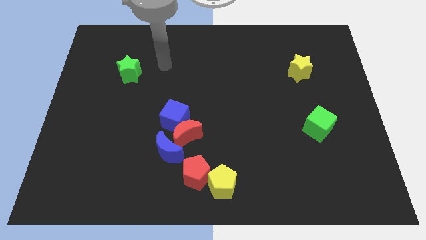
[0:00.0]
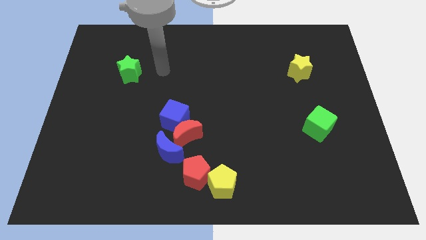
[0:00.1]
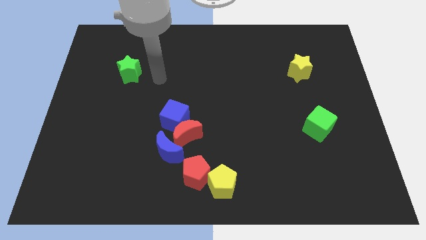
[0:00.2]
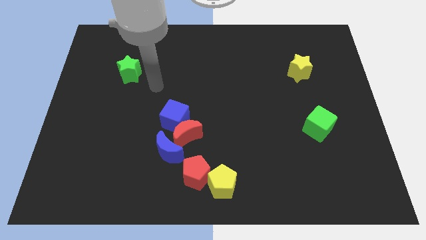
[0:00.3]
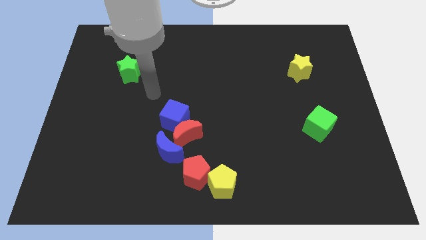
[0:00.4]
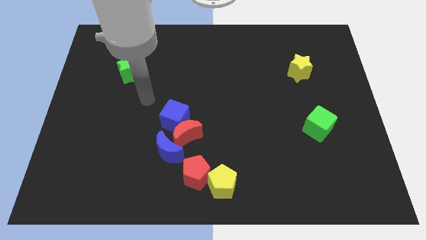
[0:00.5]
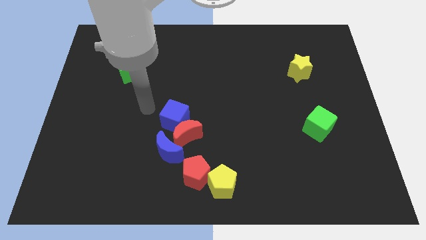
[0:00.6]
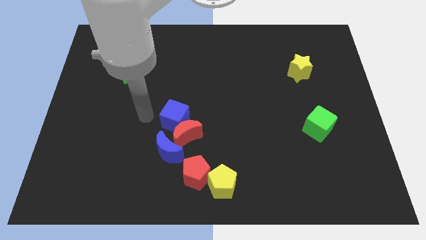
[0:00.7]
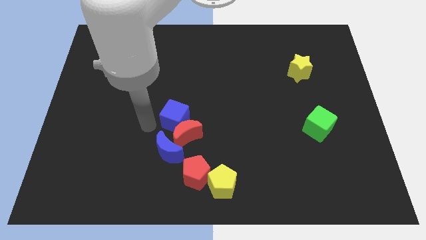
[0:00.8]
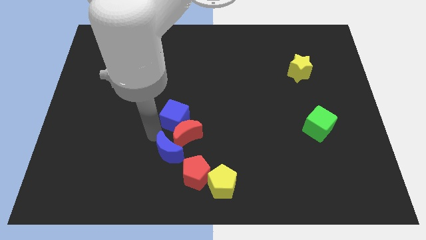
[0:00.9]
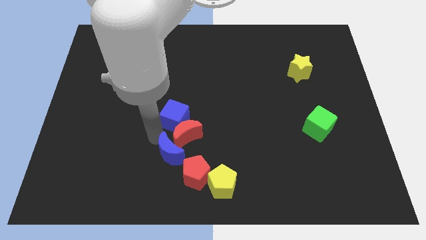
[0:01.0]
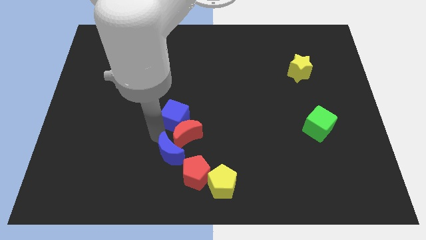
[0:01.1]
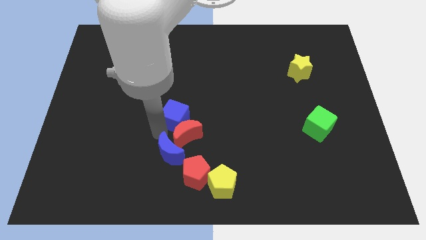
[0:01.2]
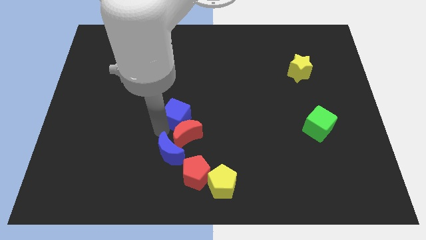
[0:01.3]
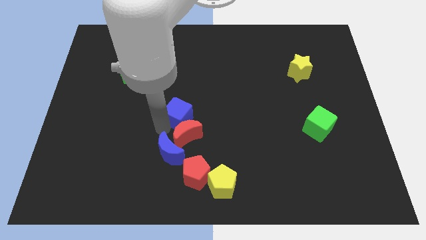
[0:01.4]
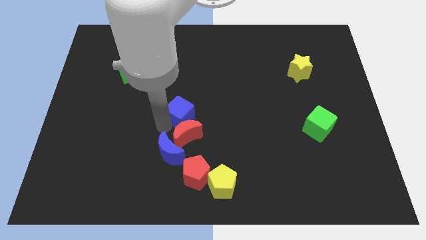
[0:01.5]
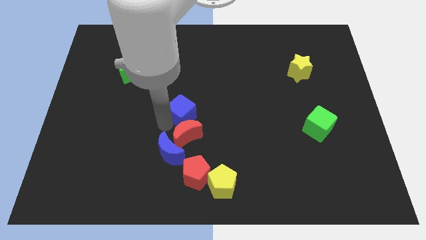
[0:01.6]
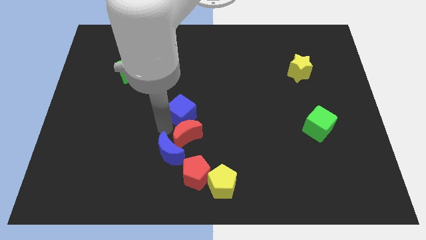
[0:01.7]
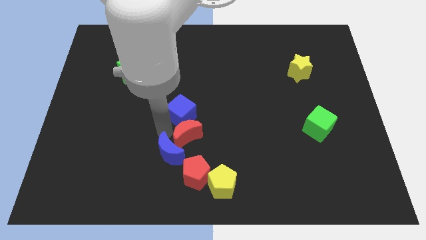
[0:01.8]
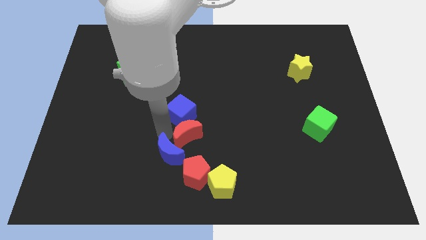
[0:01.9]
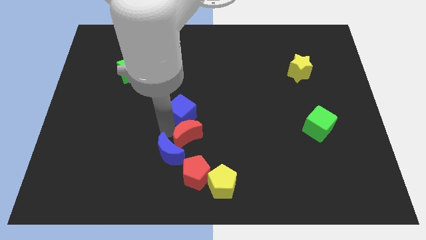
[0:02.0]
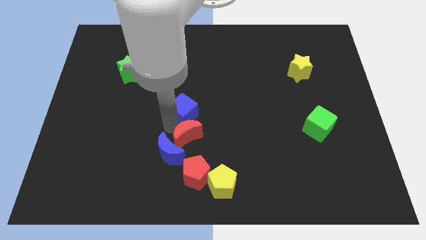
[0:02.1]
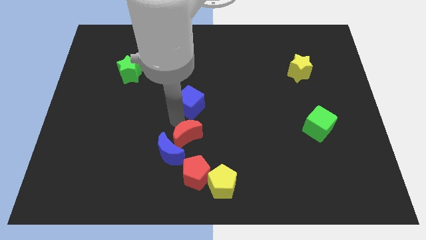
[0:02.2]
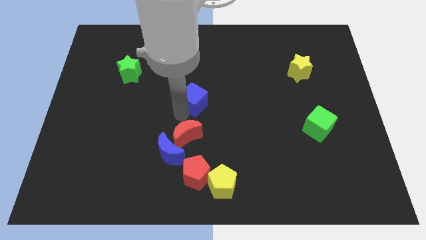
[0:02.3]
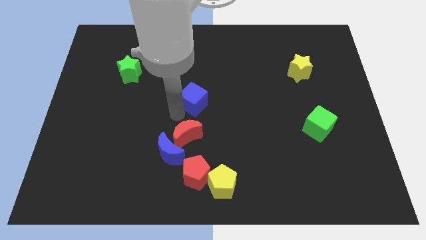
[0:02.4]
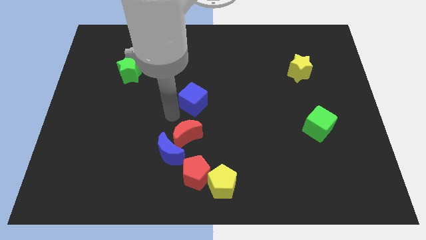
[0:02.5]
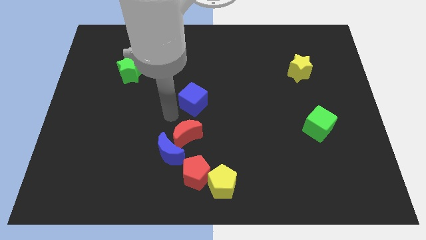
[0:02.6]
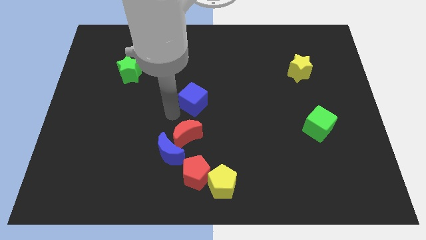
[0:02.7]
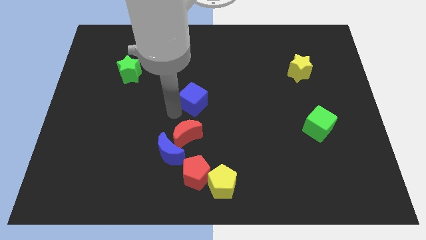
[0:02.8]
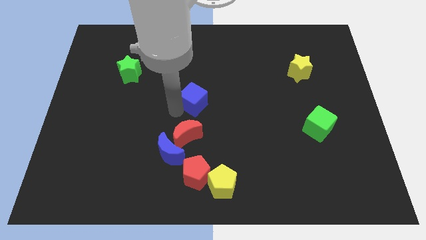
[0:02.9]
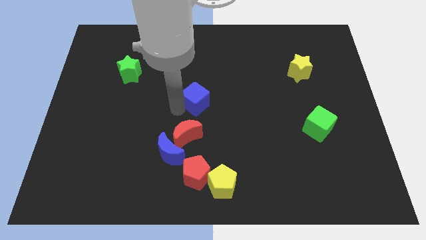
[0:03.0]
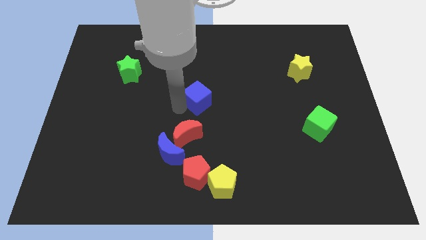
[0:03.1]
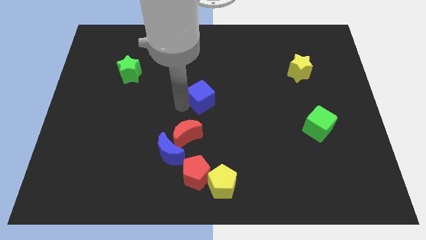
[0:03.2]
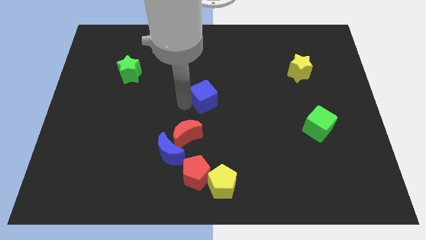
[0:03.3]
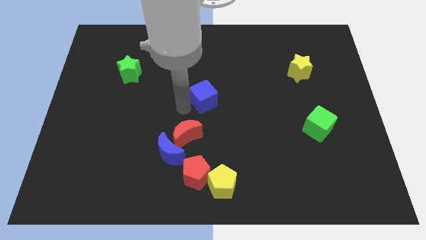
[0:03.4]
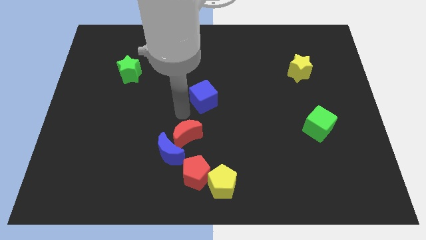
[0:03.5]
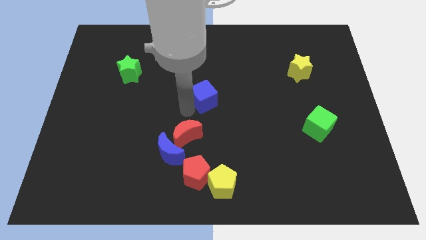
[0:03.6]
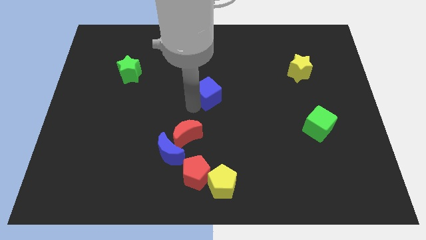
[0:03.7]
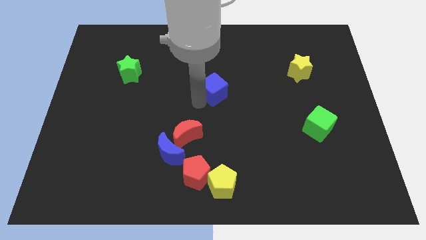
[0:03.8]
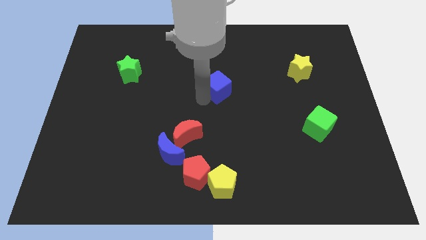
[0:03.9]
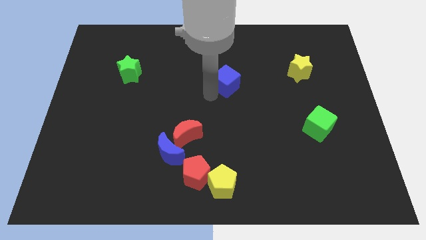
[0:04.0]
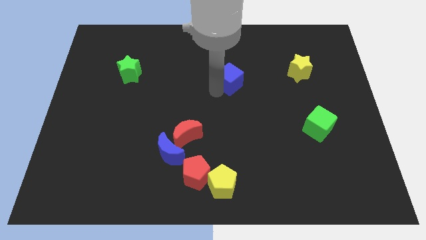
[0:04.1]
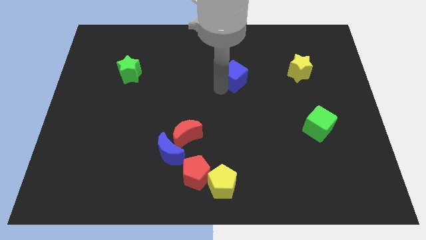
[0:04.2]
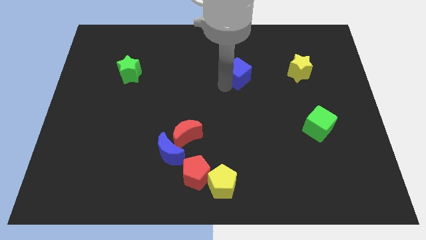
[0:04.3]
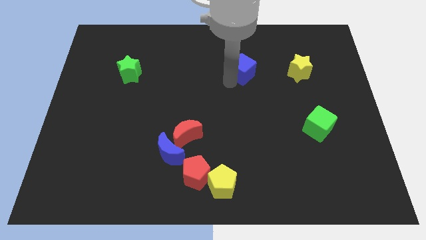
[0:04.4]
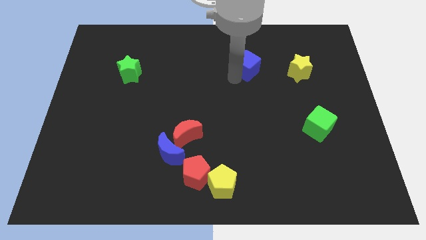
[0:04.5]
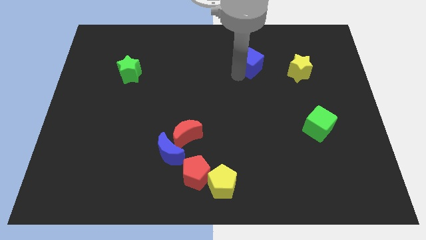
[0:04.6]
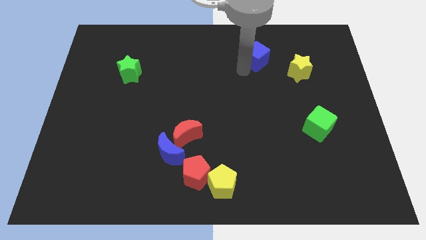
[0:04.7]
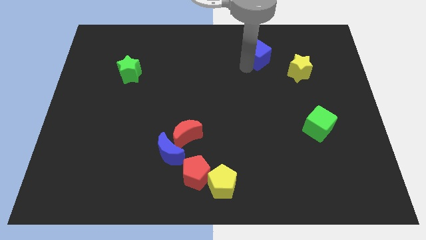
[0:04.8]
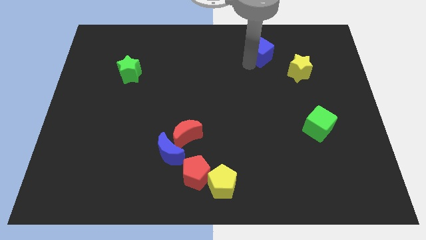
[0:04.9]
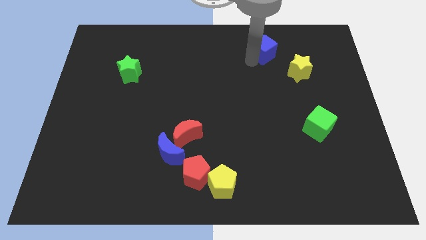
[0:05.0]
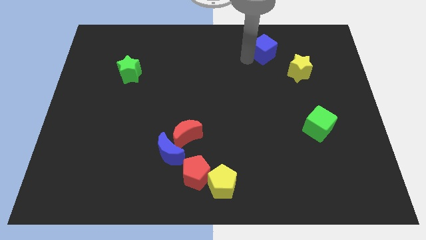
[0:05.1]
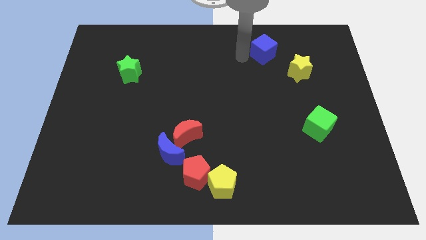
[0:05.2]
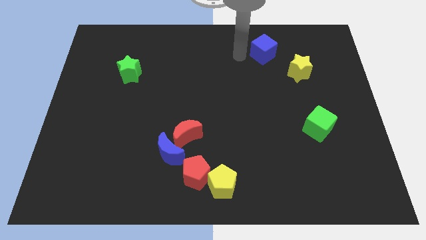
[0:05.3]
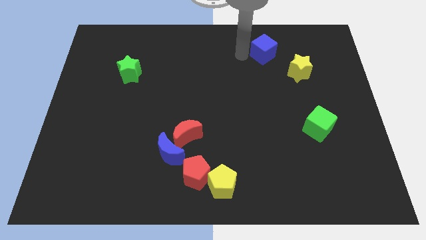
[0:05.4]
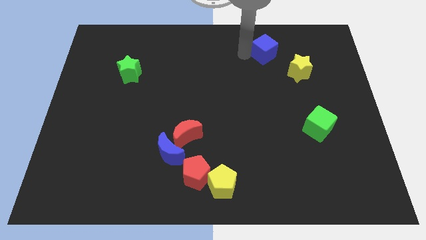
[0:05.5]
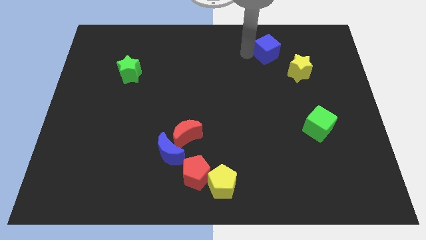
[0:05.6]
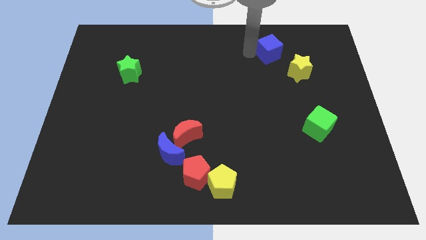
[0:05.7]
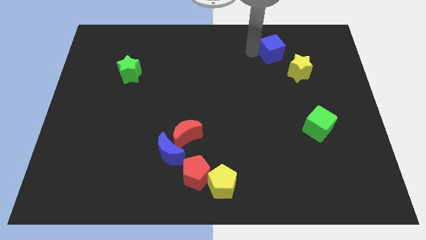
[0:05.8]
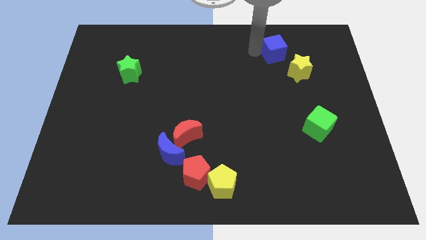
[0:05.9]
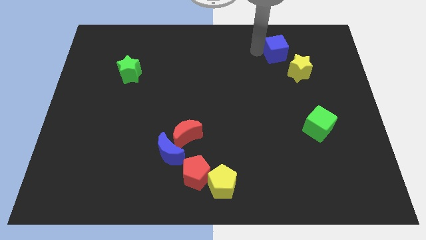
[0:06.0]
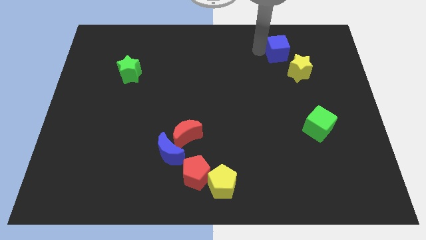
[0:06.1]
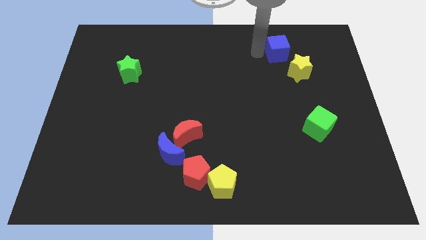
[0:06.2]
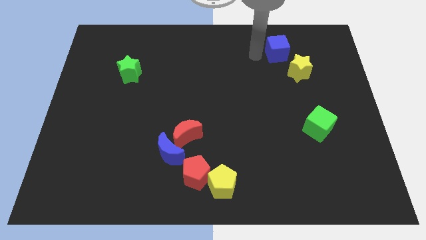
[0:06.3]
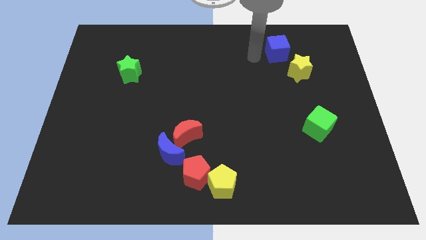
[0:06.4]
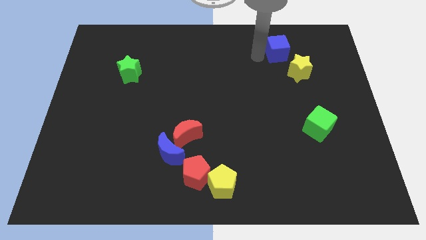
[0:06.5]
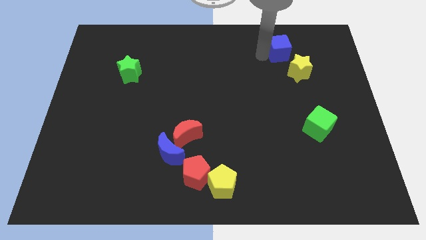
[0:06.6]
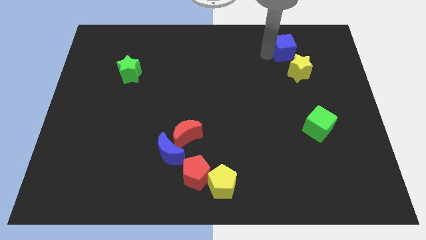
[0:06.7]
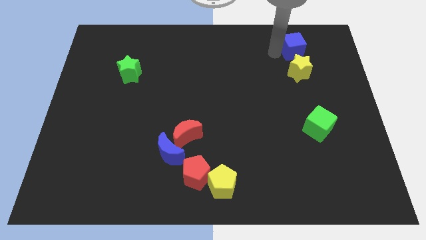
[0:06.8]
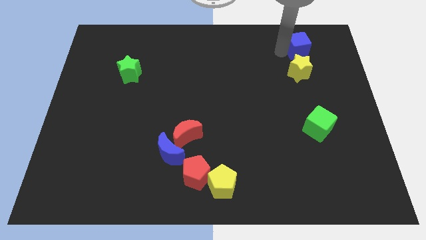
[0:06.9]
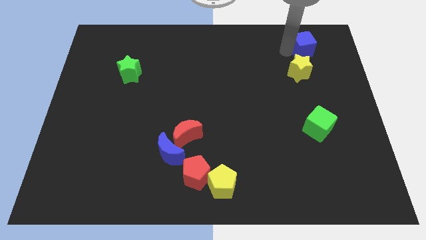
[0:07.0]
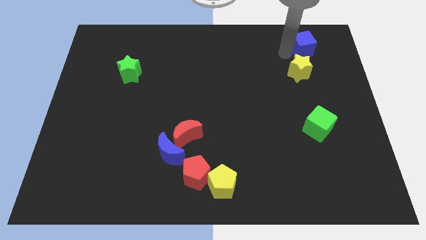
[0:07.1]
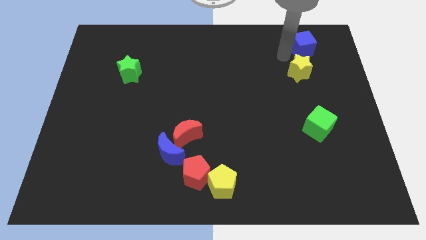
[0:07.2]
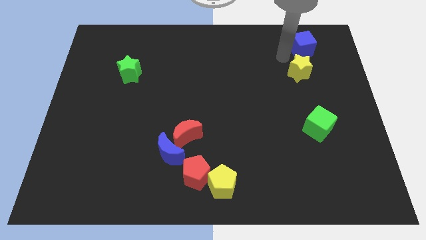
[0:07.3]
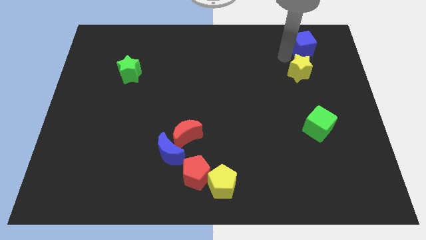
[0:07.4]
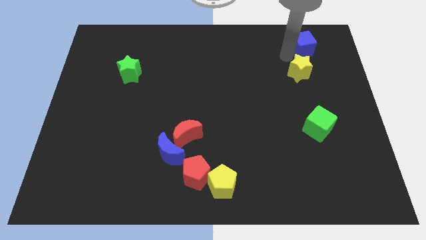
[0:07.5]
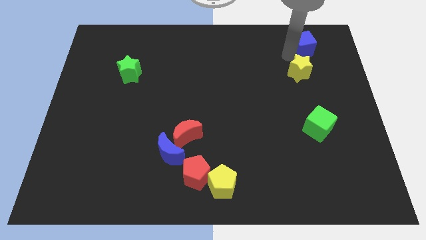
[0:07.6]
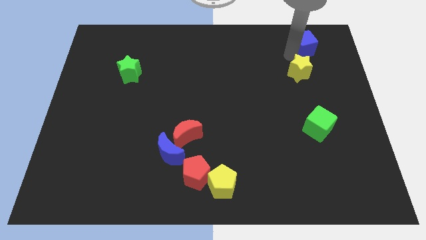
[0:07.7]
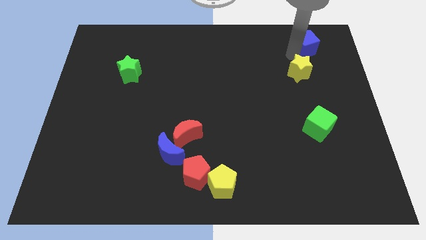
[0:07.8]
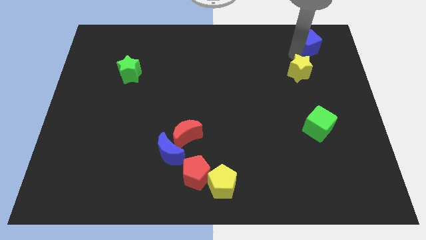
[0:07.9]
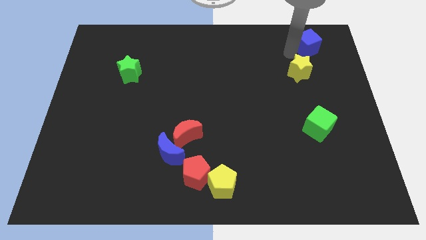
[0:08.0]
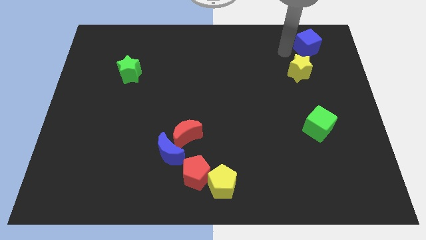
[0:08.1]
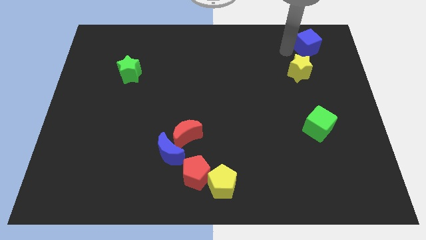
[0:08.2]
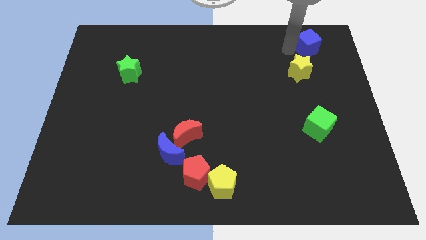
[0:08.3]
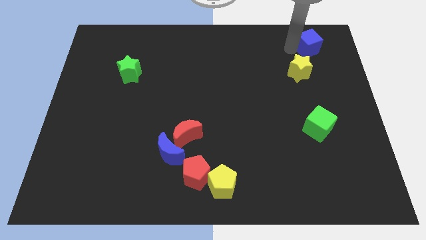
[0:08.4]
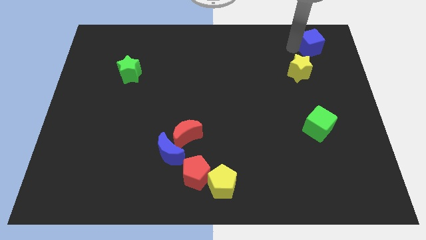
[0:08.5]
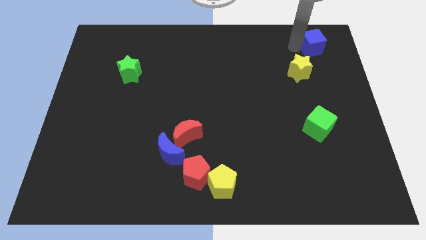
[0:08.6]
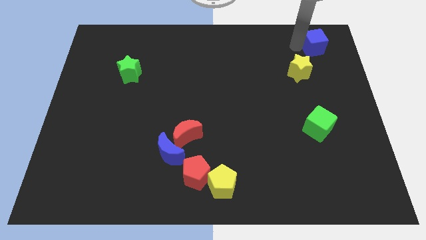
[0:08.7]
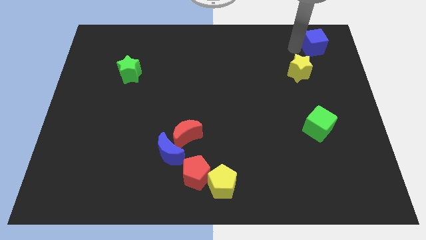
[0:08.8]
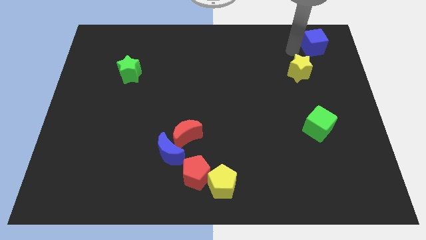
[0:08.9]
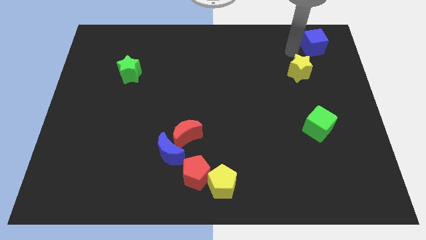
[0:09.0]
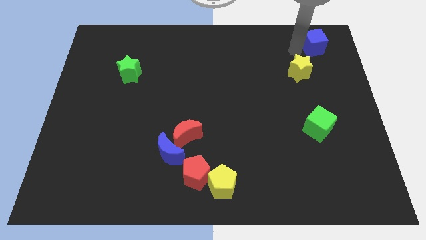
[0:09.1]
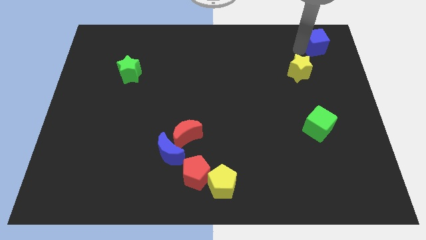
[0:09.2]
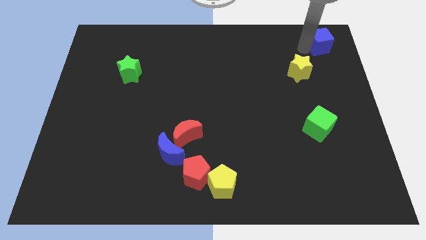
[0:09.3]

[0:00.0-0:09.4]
move the blue cube to the upper right corner
